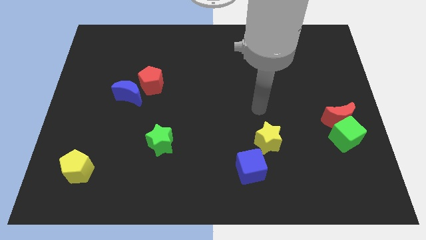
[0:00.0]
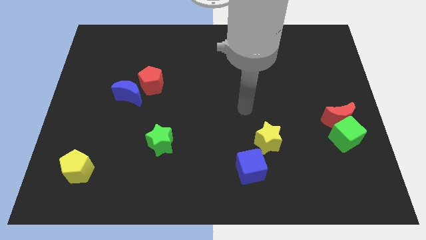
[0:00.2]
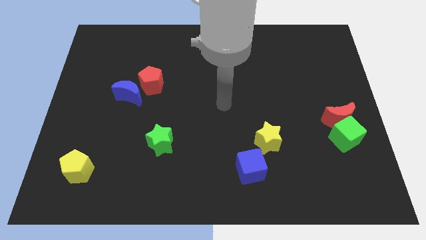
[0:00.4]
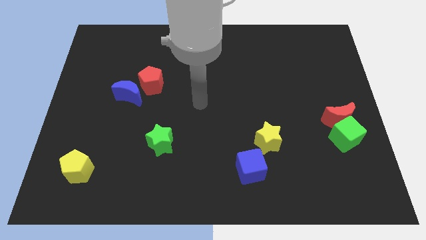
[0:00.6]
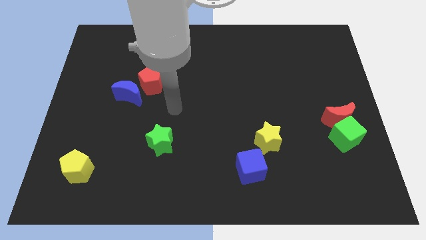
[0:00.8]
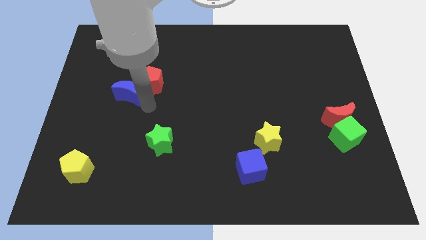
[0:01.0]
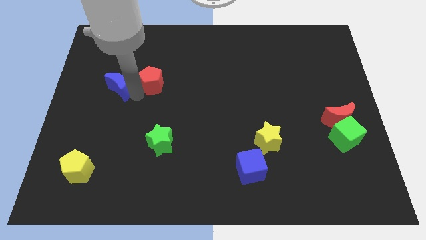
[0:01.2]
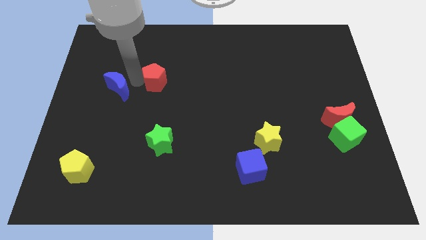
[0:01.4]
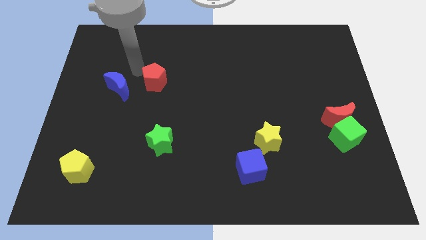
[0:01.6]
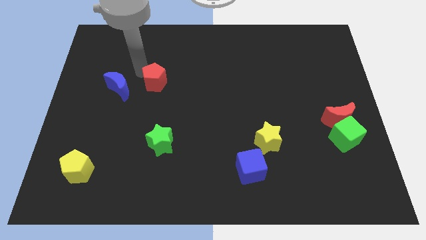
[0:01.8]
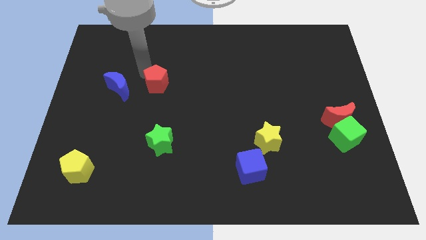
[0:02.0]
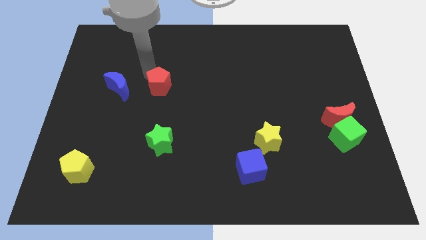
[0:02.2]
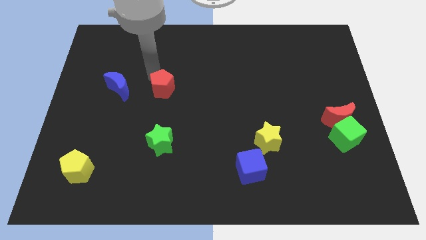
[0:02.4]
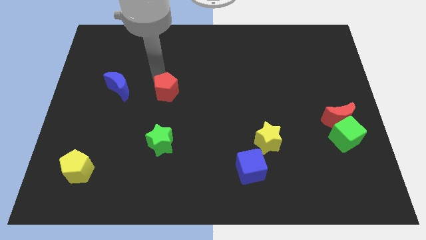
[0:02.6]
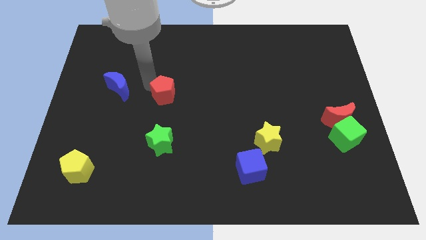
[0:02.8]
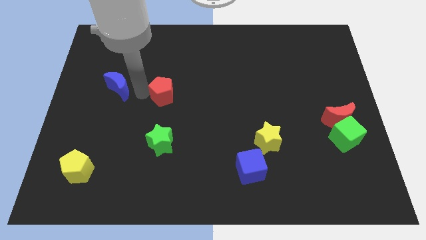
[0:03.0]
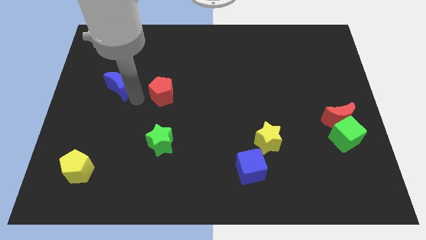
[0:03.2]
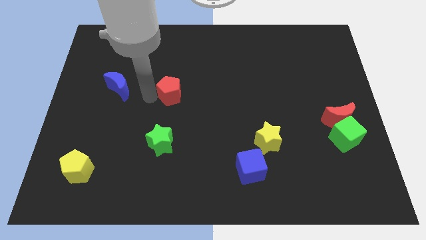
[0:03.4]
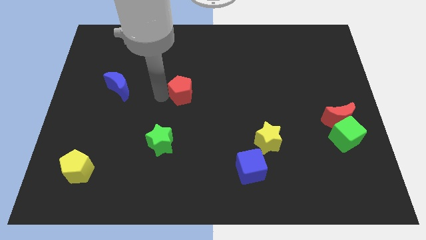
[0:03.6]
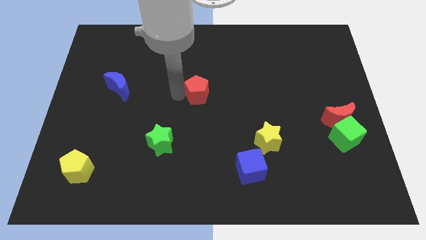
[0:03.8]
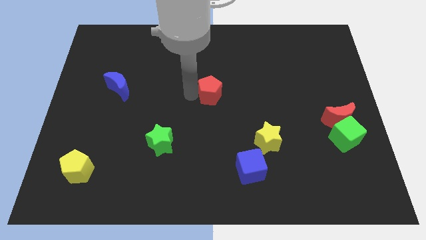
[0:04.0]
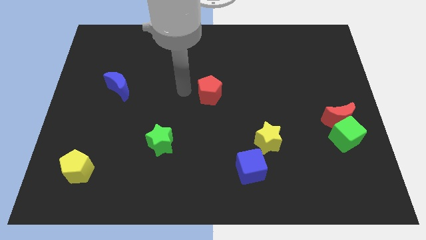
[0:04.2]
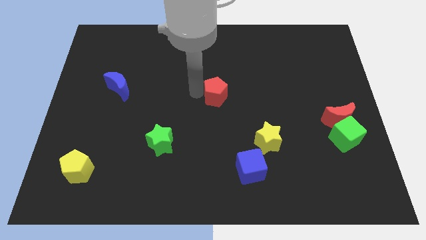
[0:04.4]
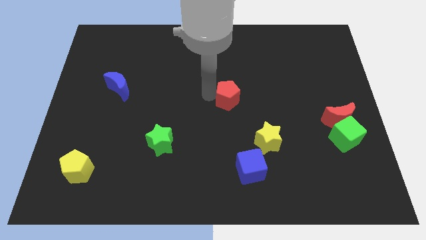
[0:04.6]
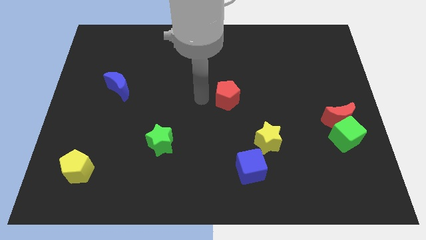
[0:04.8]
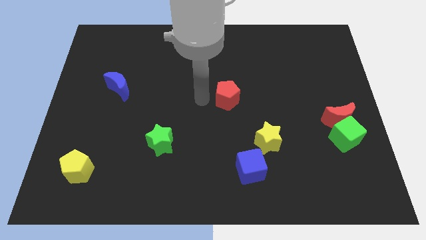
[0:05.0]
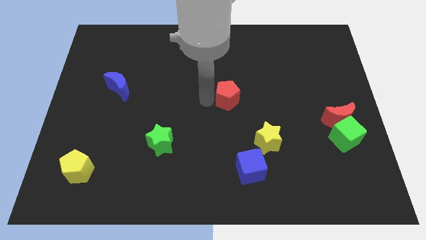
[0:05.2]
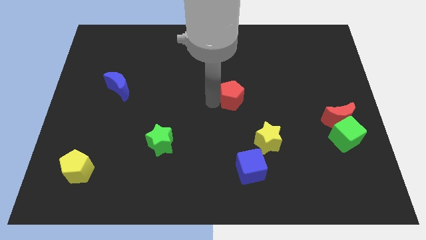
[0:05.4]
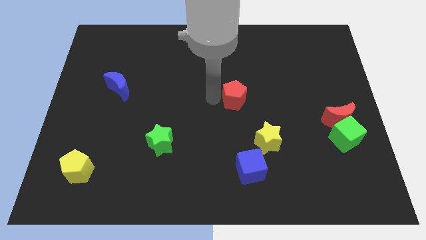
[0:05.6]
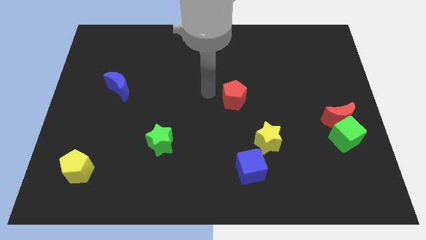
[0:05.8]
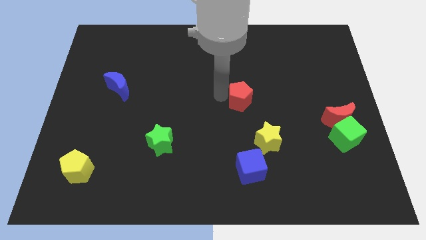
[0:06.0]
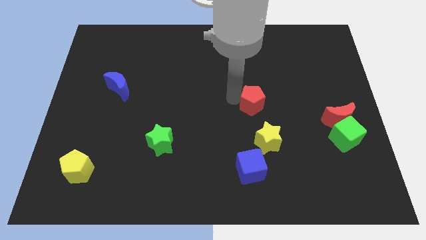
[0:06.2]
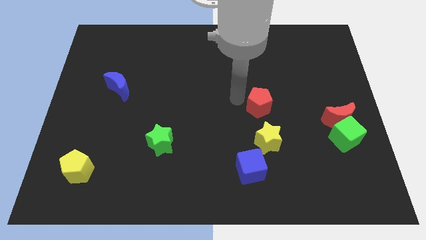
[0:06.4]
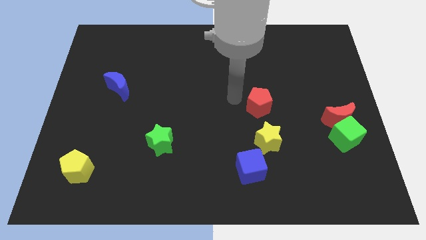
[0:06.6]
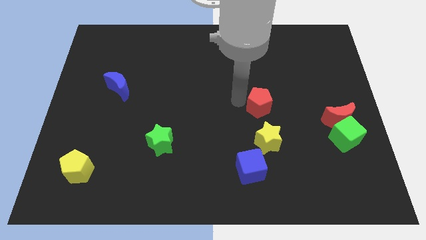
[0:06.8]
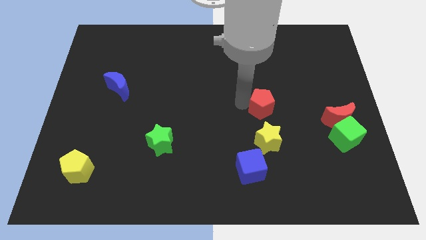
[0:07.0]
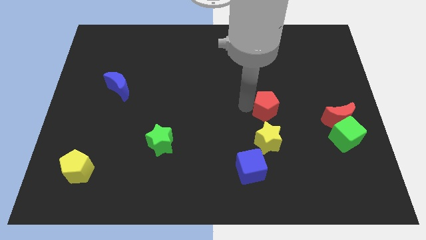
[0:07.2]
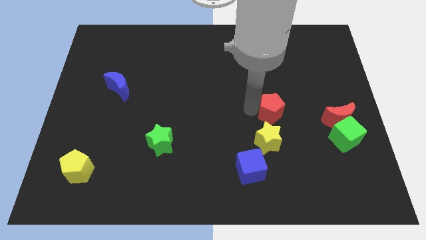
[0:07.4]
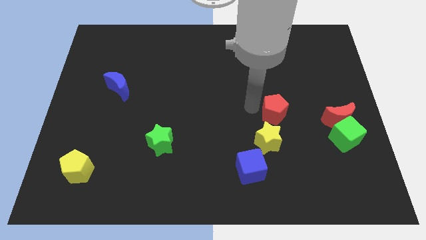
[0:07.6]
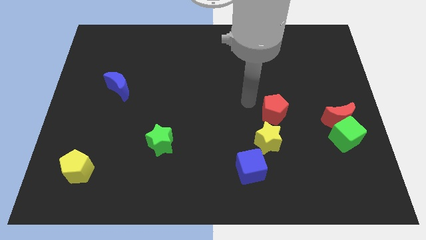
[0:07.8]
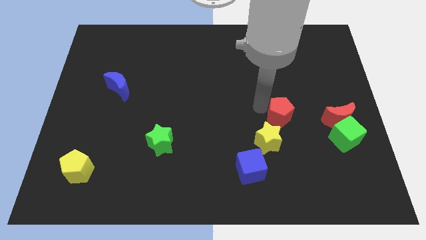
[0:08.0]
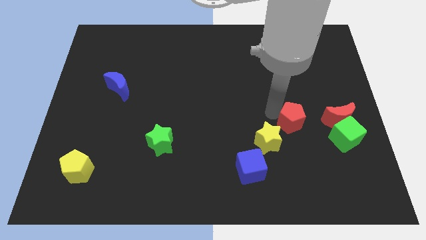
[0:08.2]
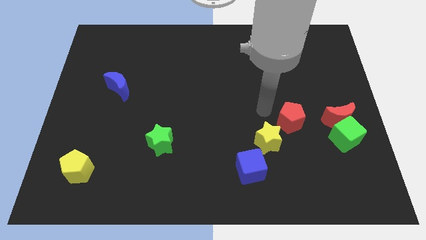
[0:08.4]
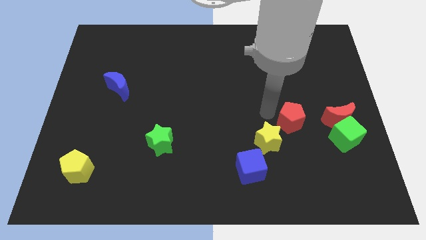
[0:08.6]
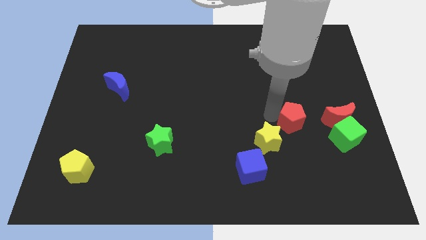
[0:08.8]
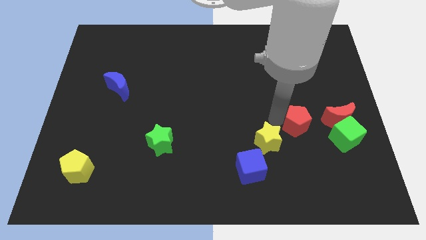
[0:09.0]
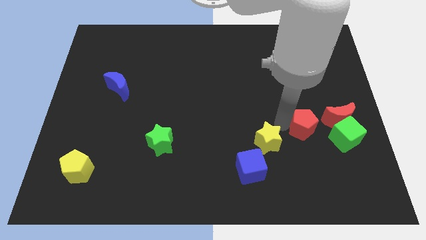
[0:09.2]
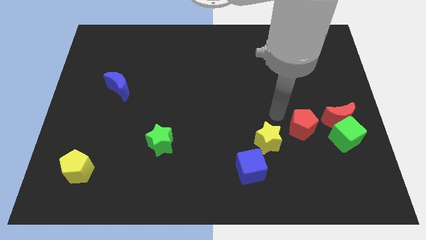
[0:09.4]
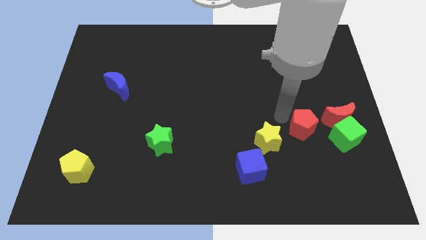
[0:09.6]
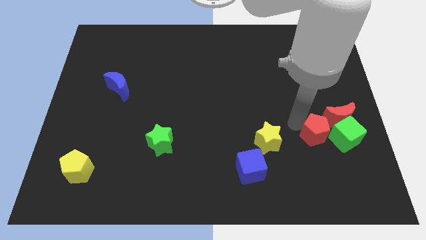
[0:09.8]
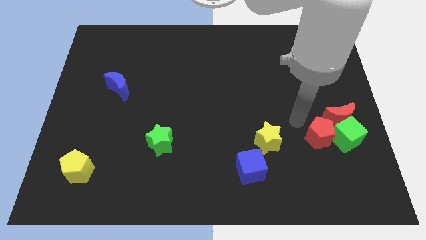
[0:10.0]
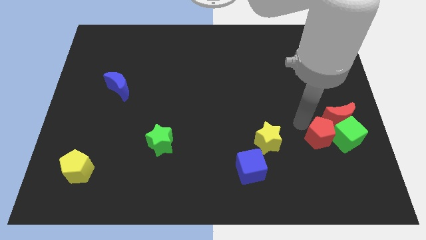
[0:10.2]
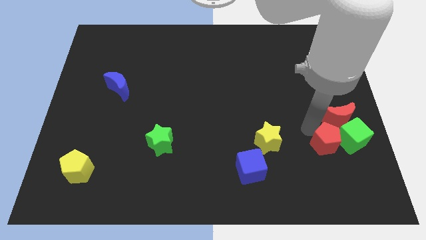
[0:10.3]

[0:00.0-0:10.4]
move the red pentagon to the bottom side of the red moon

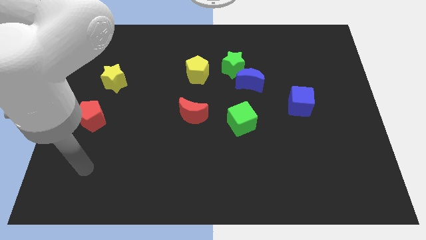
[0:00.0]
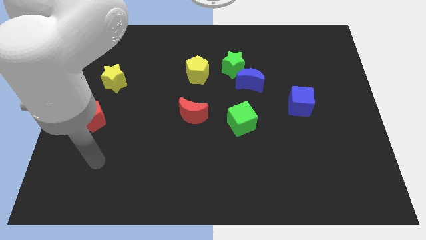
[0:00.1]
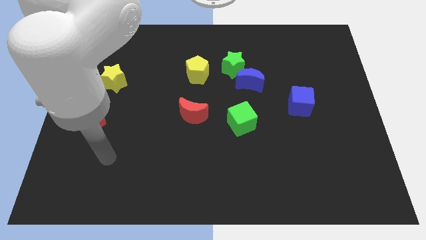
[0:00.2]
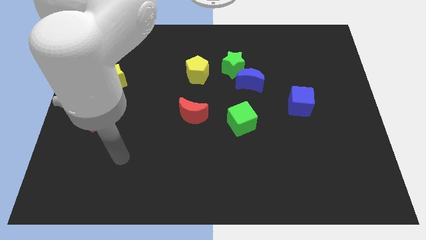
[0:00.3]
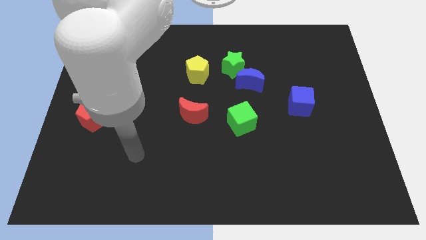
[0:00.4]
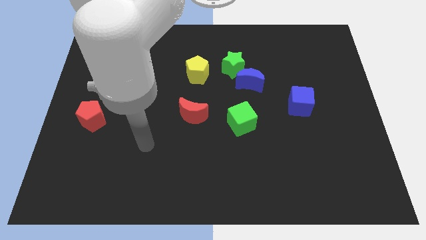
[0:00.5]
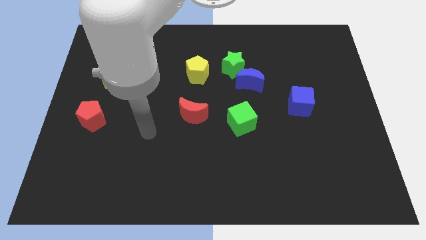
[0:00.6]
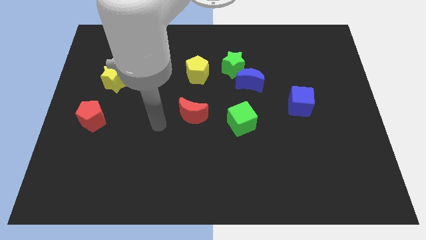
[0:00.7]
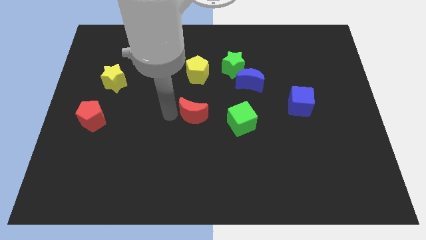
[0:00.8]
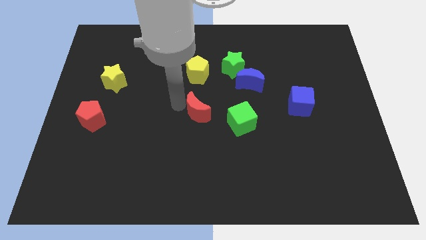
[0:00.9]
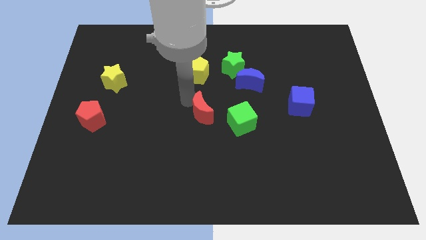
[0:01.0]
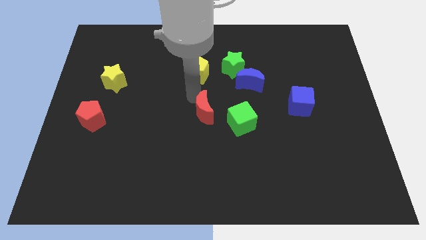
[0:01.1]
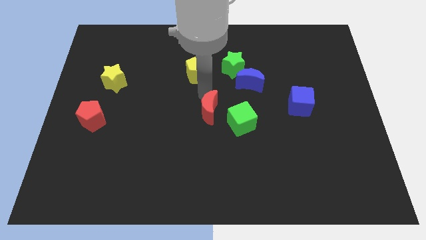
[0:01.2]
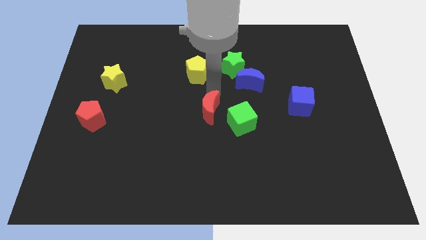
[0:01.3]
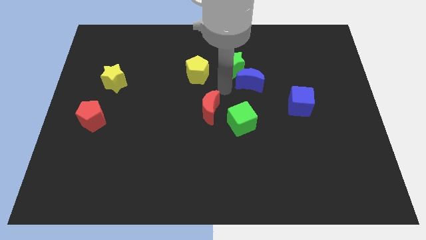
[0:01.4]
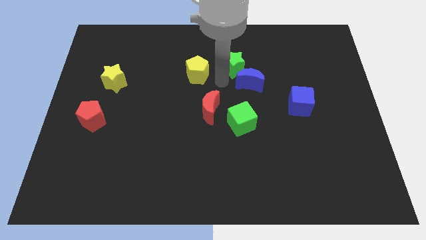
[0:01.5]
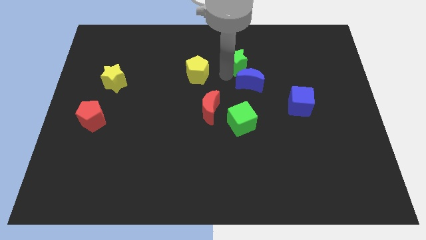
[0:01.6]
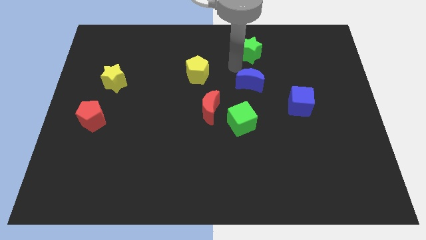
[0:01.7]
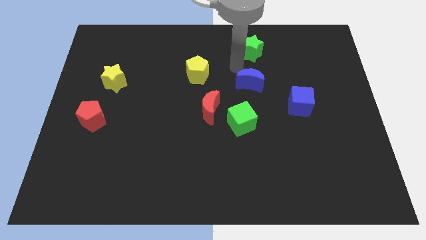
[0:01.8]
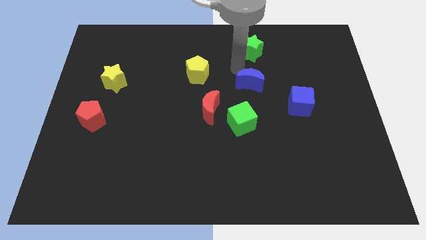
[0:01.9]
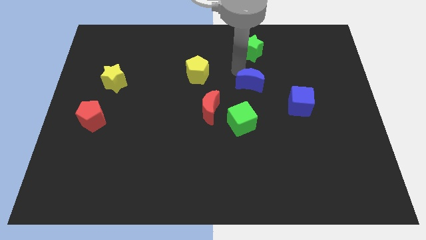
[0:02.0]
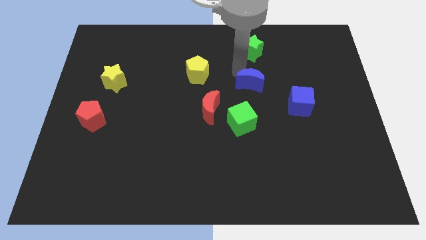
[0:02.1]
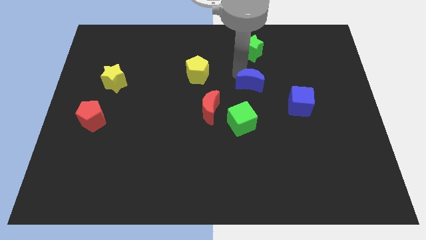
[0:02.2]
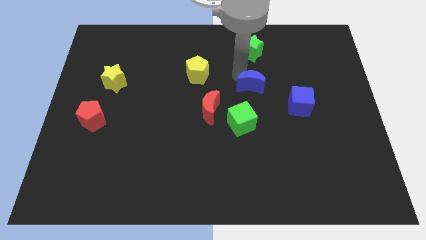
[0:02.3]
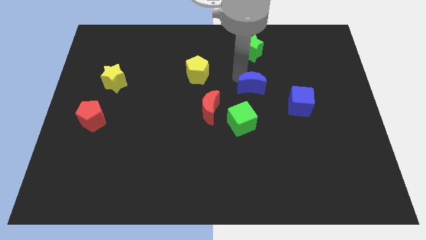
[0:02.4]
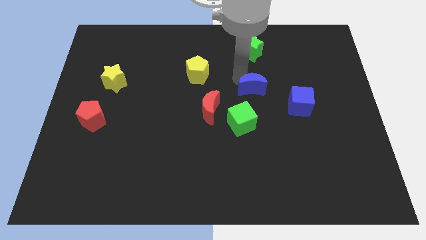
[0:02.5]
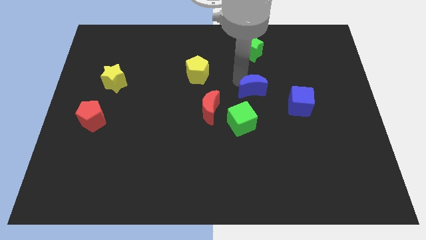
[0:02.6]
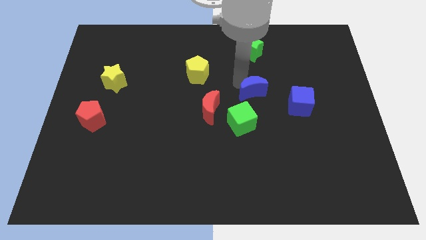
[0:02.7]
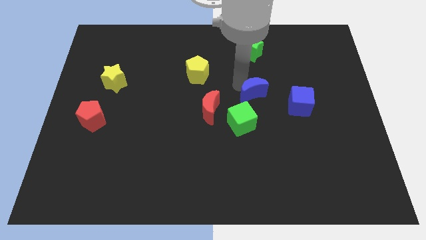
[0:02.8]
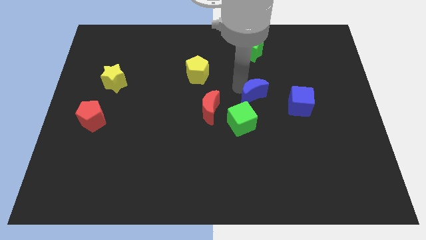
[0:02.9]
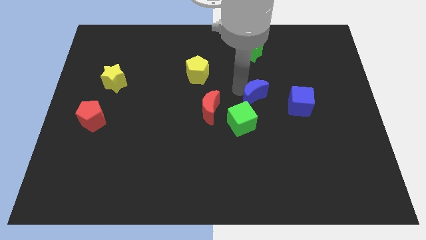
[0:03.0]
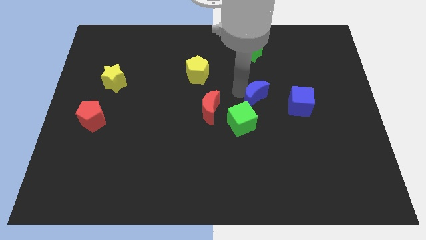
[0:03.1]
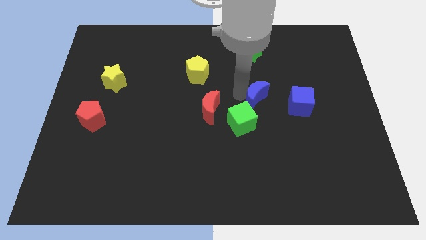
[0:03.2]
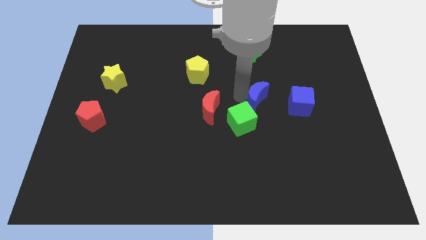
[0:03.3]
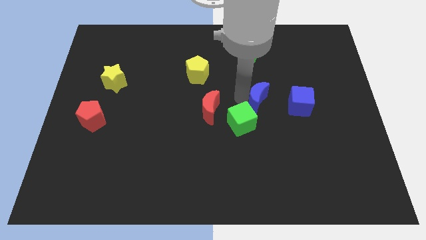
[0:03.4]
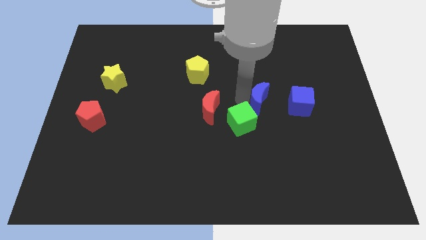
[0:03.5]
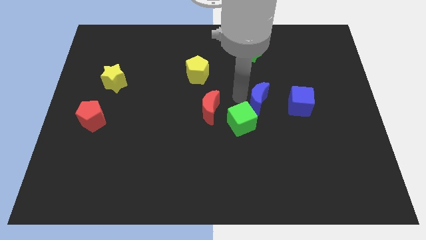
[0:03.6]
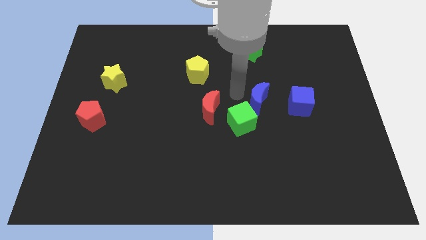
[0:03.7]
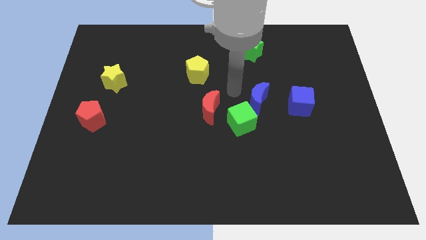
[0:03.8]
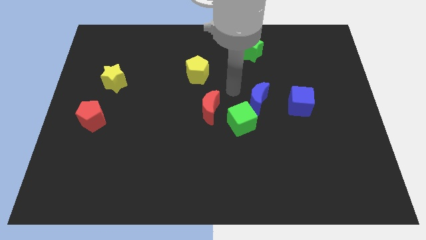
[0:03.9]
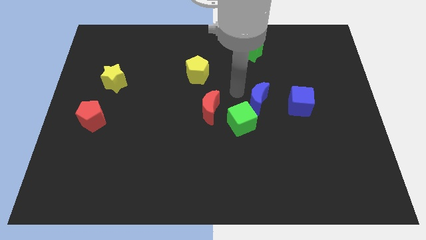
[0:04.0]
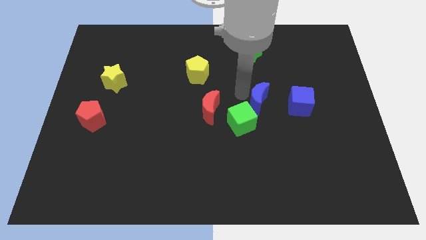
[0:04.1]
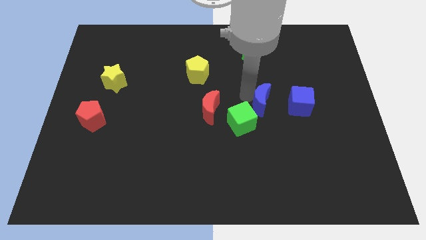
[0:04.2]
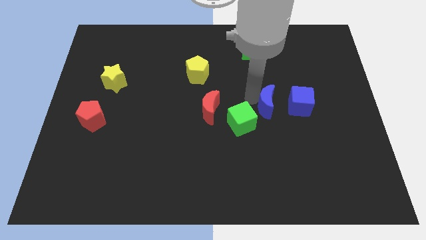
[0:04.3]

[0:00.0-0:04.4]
put the blue moon right of the green cube
